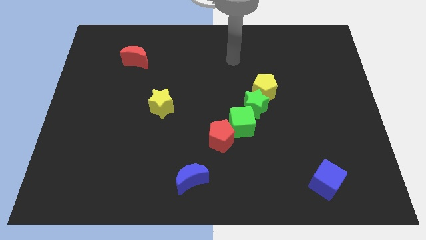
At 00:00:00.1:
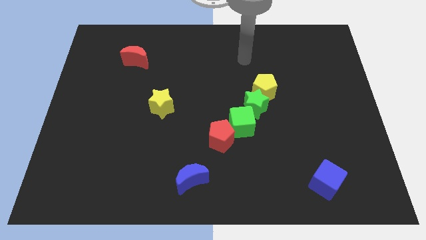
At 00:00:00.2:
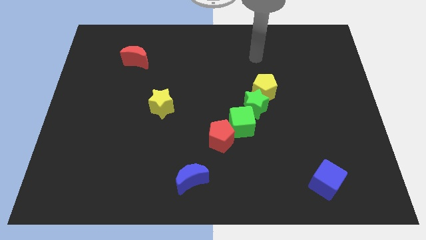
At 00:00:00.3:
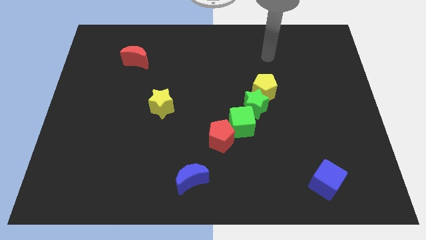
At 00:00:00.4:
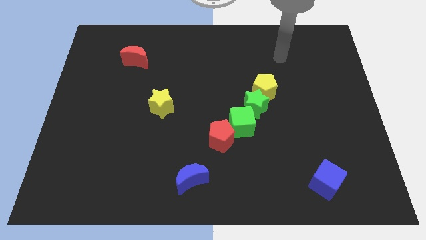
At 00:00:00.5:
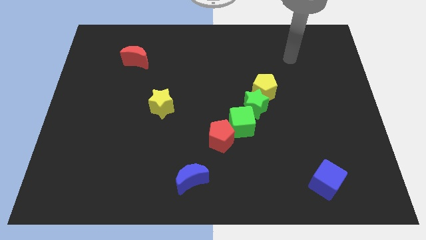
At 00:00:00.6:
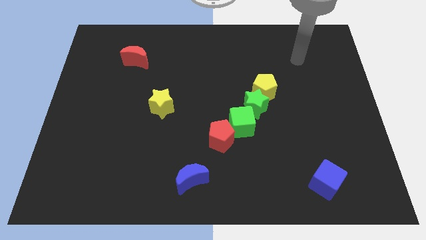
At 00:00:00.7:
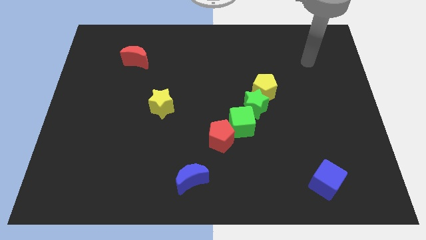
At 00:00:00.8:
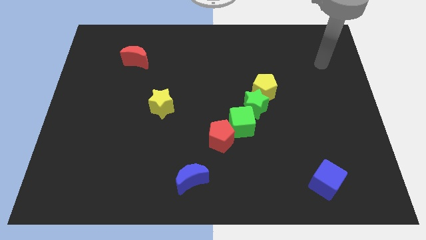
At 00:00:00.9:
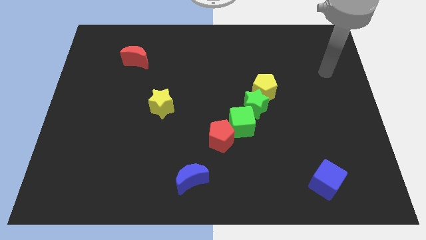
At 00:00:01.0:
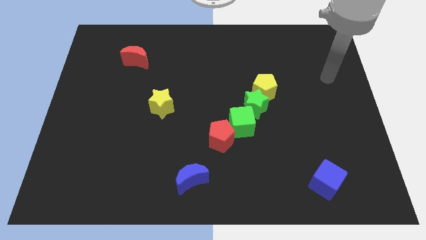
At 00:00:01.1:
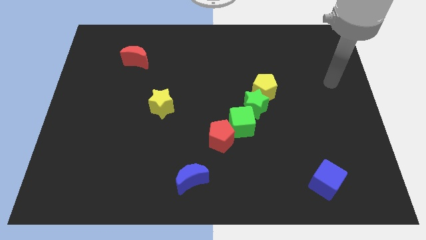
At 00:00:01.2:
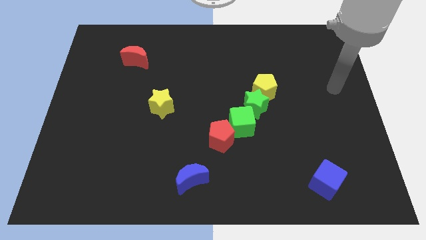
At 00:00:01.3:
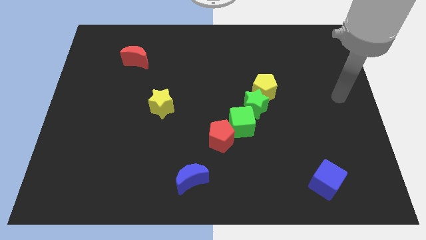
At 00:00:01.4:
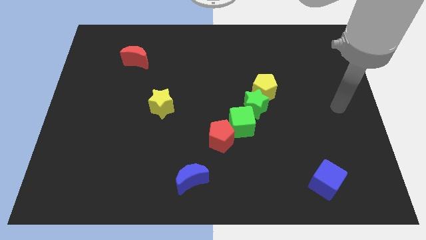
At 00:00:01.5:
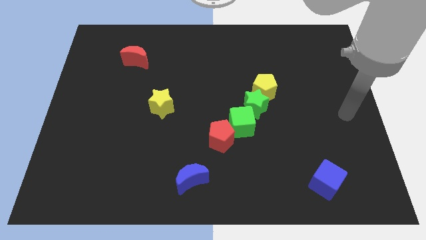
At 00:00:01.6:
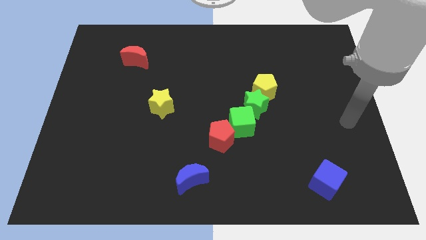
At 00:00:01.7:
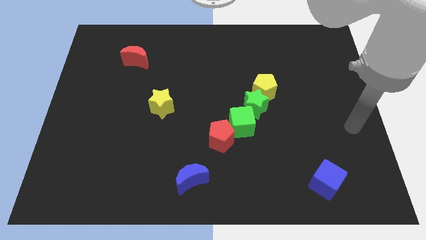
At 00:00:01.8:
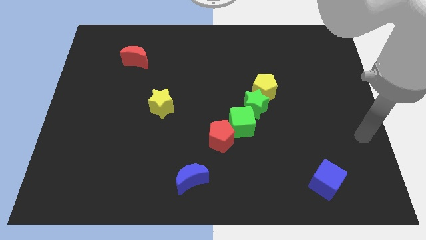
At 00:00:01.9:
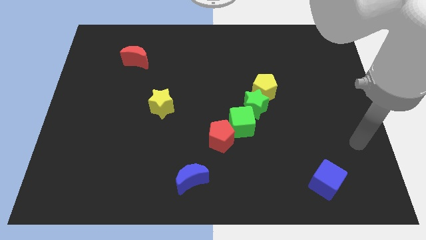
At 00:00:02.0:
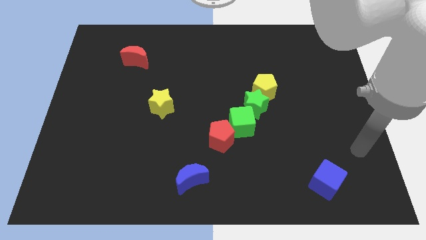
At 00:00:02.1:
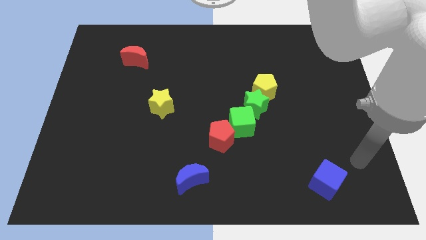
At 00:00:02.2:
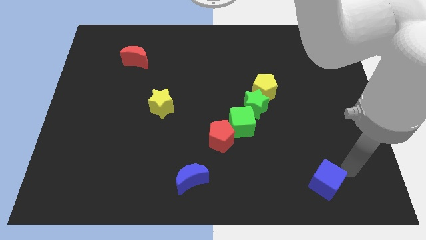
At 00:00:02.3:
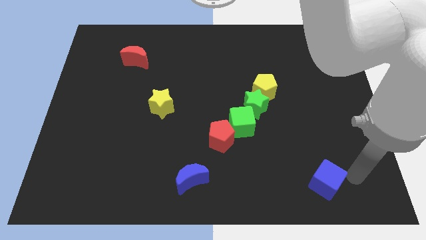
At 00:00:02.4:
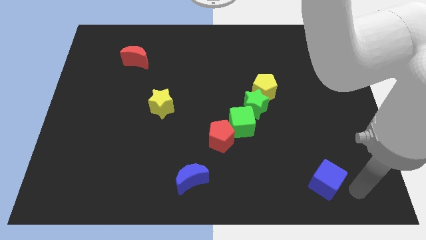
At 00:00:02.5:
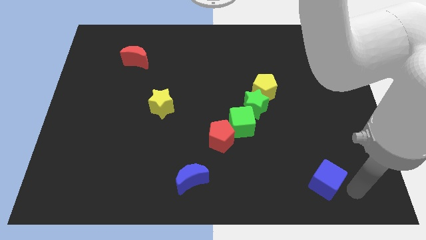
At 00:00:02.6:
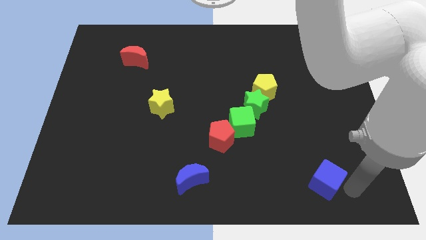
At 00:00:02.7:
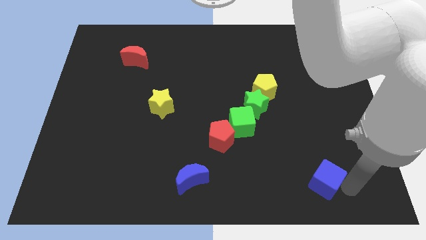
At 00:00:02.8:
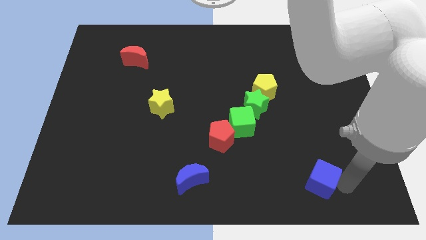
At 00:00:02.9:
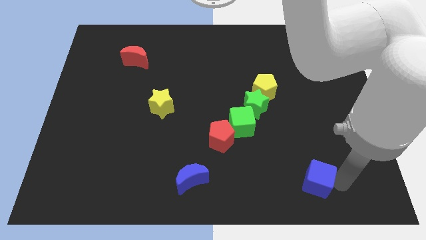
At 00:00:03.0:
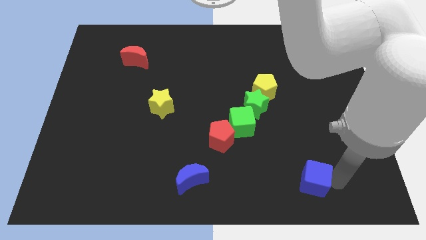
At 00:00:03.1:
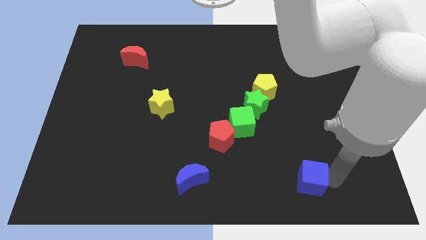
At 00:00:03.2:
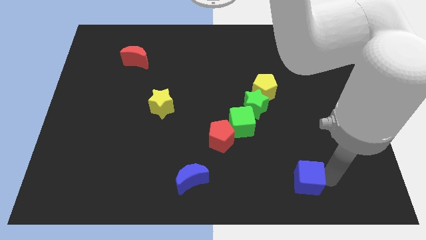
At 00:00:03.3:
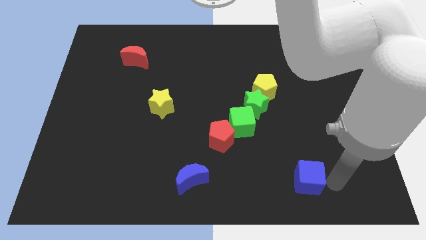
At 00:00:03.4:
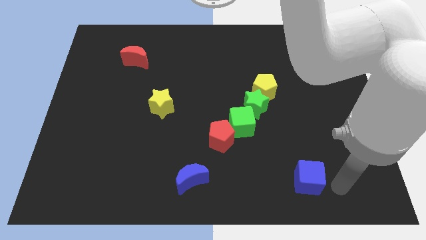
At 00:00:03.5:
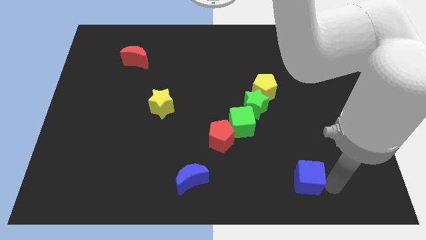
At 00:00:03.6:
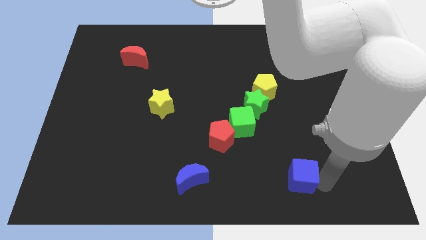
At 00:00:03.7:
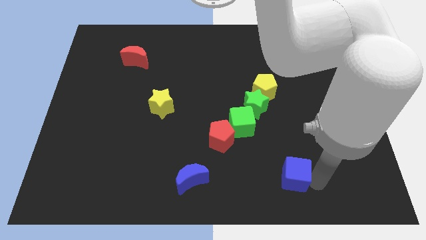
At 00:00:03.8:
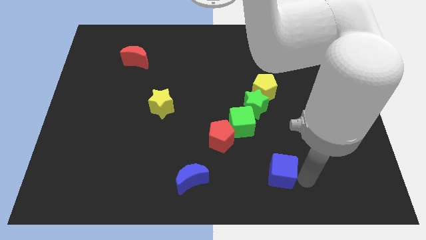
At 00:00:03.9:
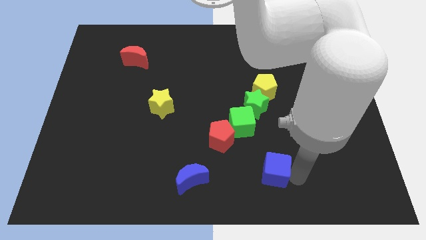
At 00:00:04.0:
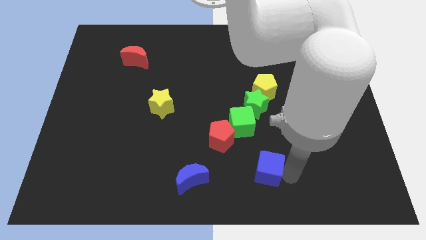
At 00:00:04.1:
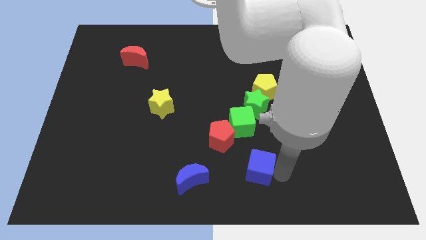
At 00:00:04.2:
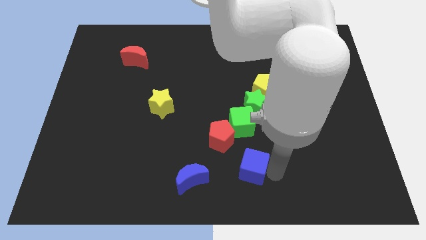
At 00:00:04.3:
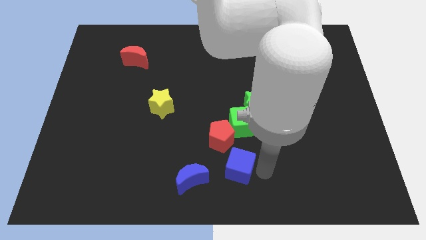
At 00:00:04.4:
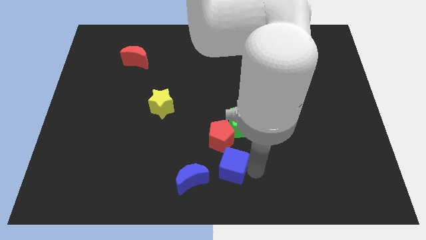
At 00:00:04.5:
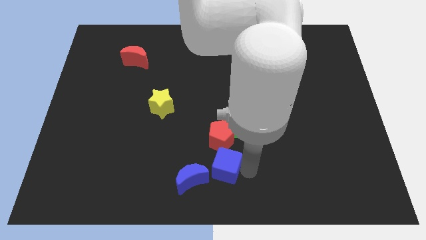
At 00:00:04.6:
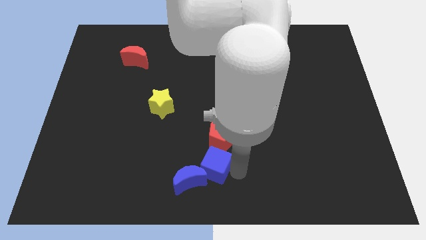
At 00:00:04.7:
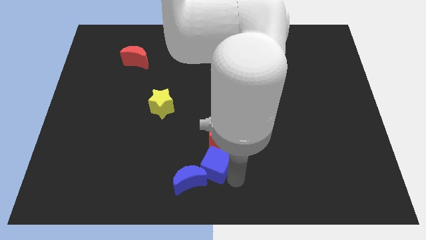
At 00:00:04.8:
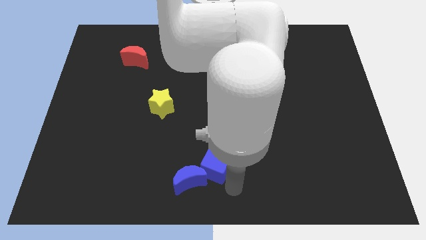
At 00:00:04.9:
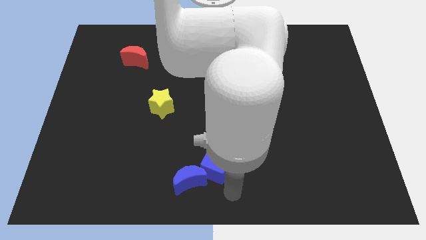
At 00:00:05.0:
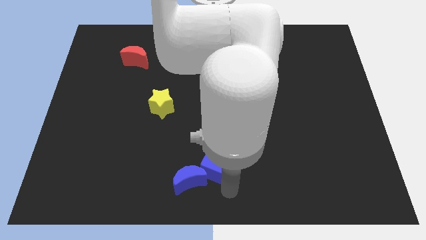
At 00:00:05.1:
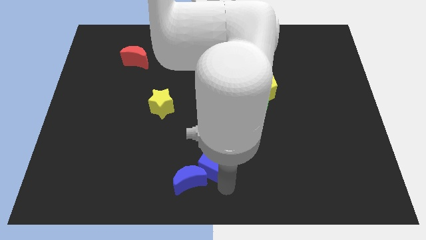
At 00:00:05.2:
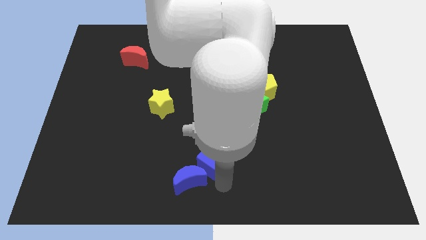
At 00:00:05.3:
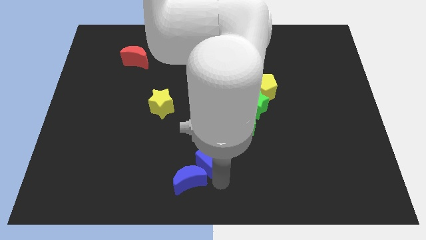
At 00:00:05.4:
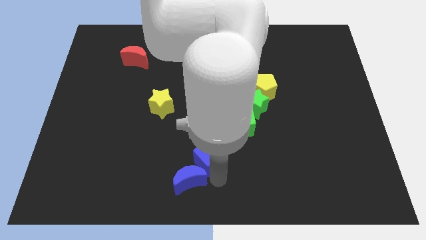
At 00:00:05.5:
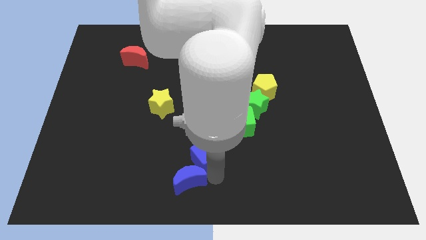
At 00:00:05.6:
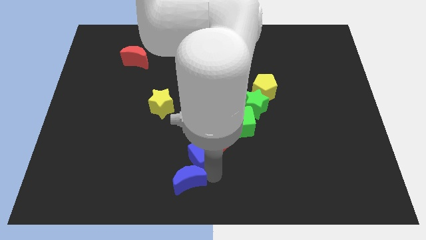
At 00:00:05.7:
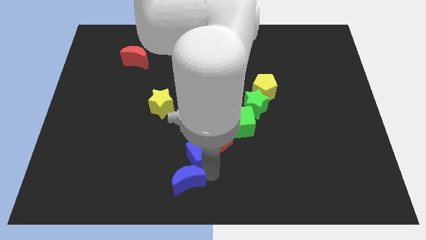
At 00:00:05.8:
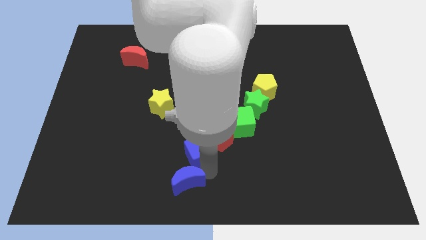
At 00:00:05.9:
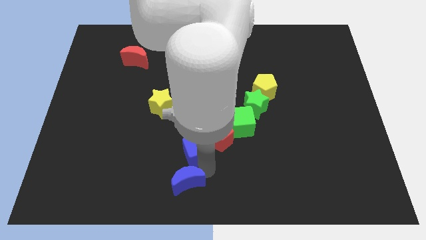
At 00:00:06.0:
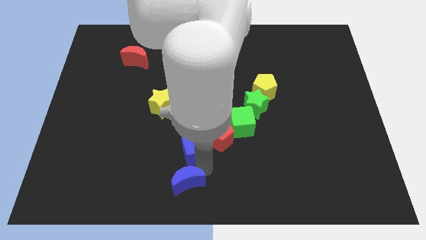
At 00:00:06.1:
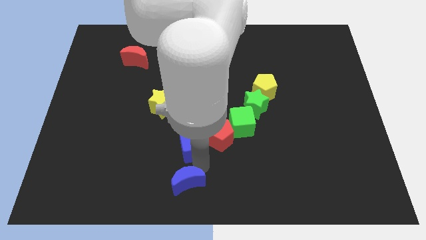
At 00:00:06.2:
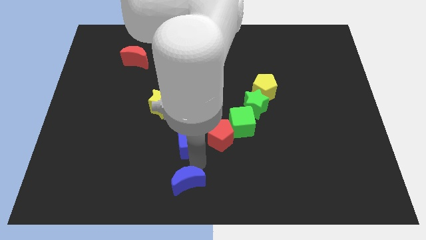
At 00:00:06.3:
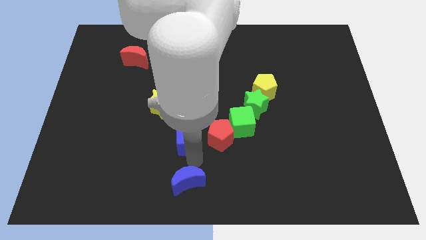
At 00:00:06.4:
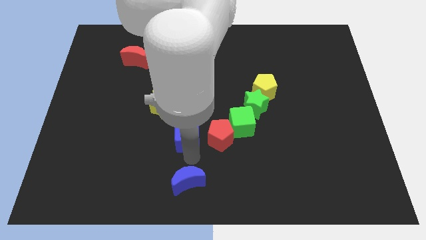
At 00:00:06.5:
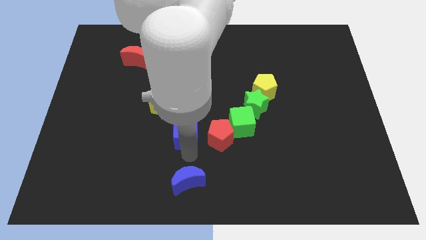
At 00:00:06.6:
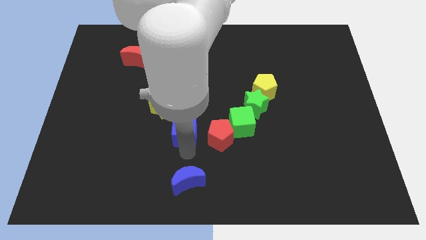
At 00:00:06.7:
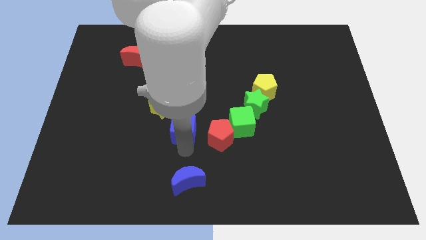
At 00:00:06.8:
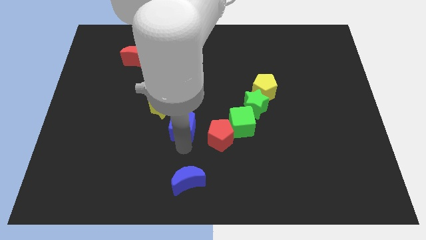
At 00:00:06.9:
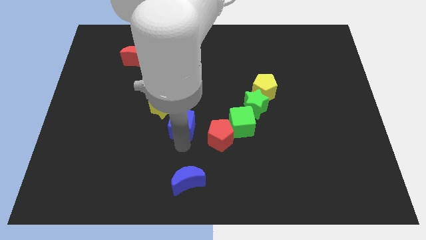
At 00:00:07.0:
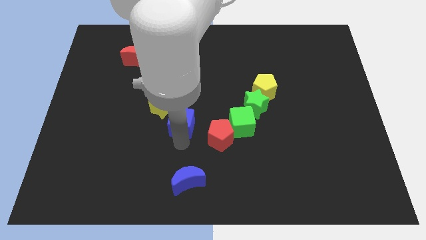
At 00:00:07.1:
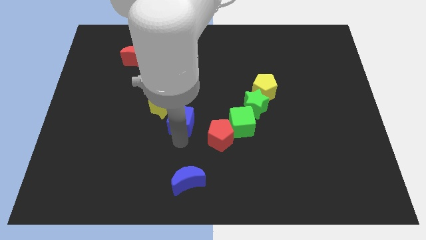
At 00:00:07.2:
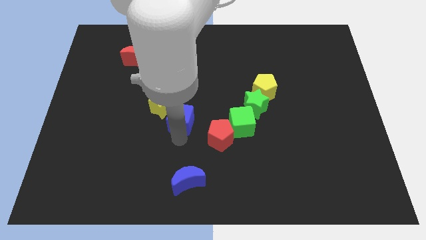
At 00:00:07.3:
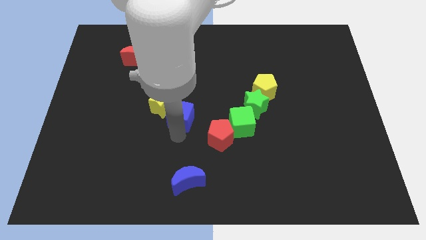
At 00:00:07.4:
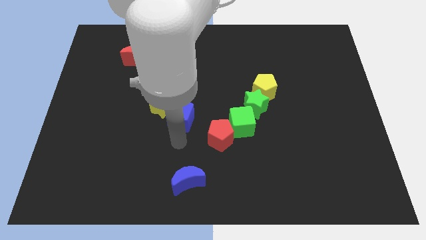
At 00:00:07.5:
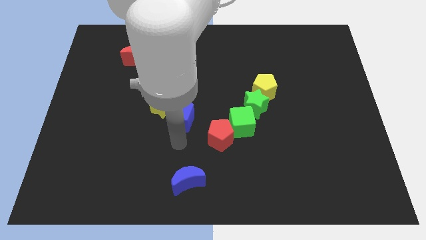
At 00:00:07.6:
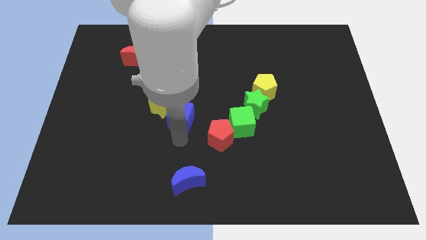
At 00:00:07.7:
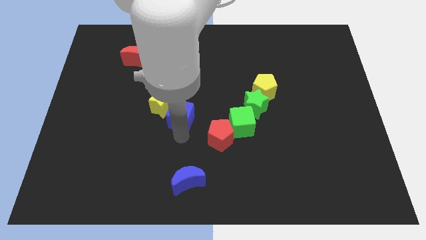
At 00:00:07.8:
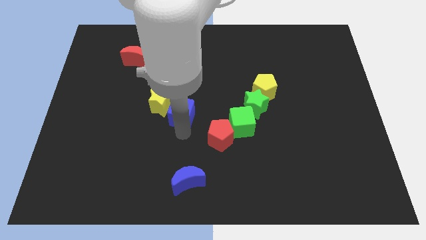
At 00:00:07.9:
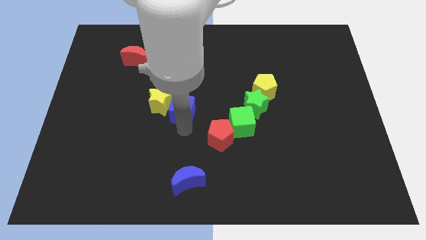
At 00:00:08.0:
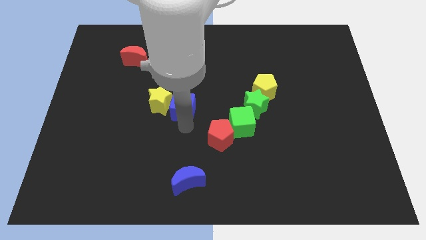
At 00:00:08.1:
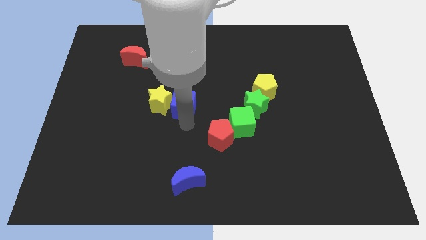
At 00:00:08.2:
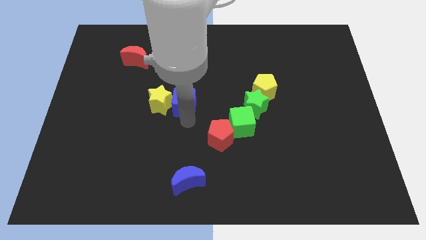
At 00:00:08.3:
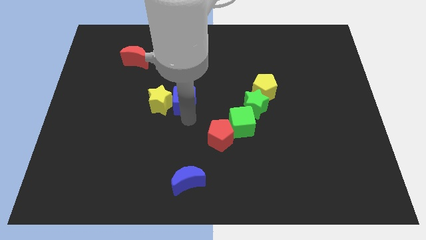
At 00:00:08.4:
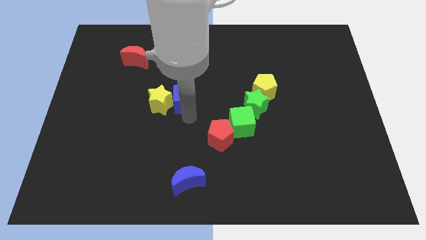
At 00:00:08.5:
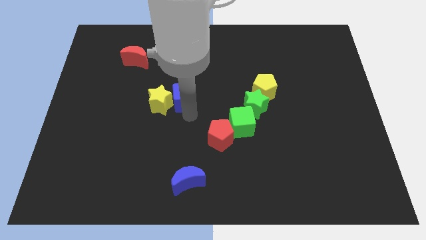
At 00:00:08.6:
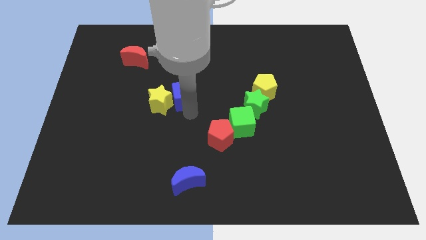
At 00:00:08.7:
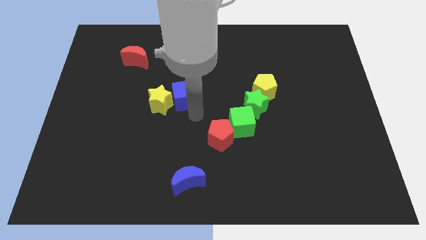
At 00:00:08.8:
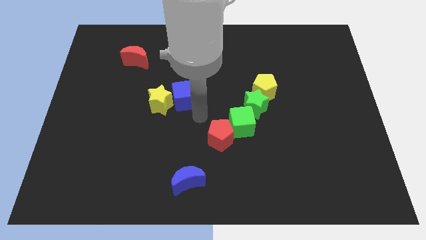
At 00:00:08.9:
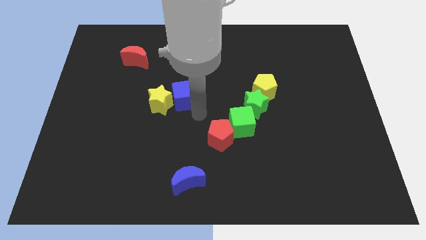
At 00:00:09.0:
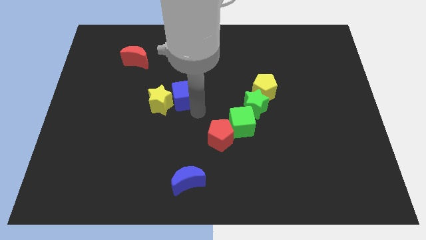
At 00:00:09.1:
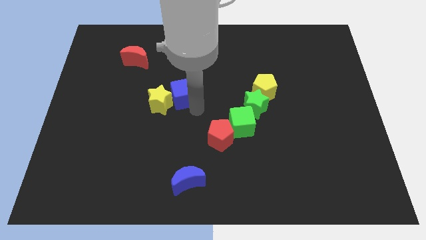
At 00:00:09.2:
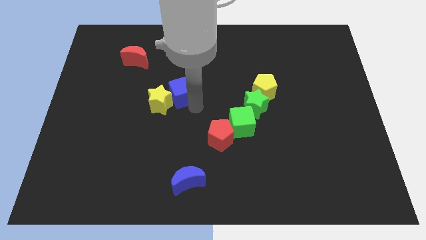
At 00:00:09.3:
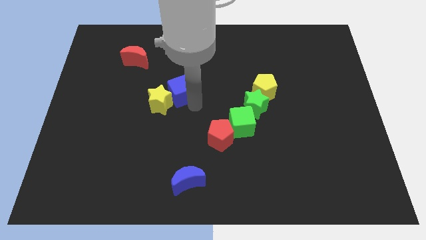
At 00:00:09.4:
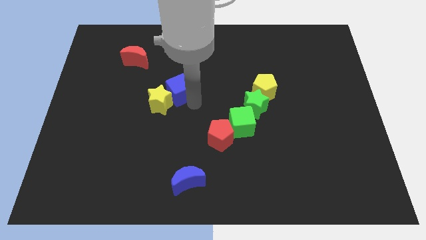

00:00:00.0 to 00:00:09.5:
slide the blue cube to the top of the yellow star
